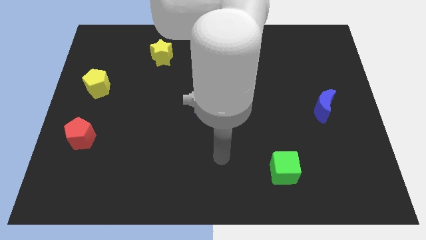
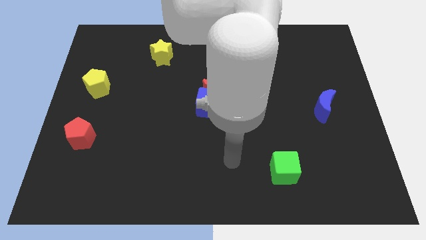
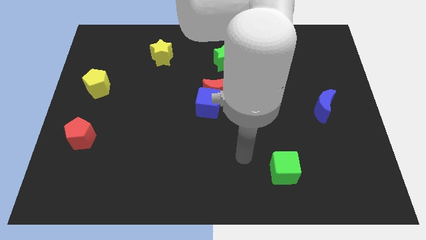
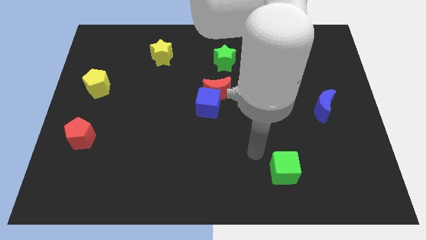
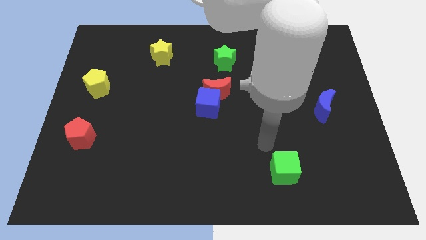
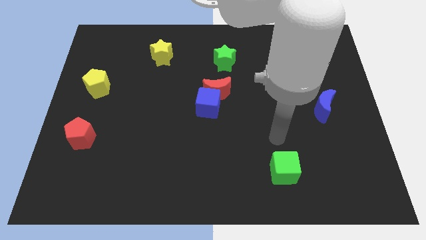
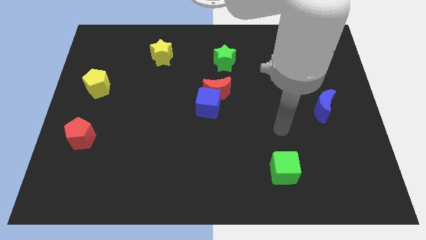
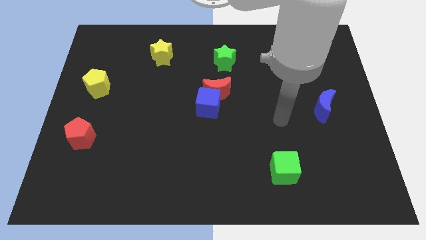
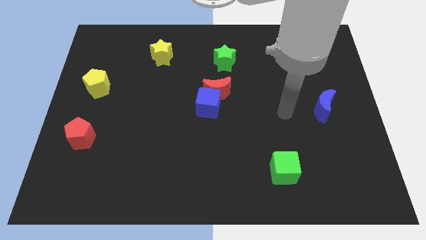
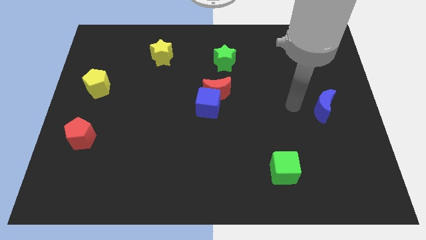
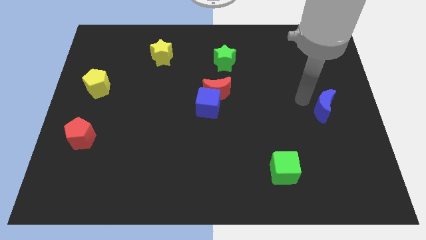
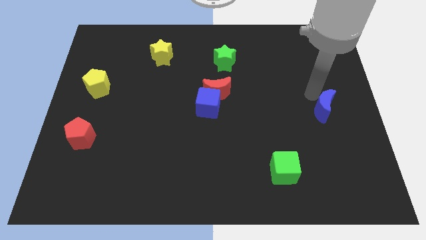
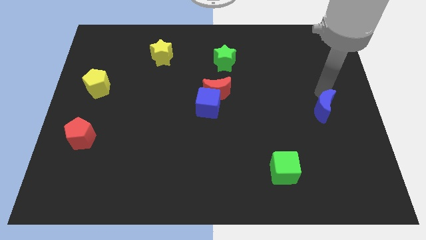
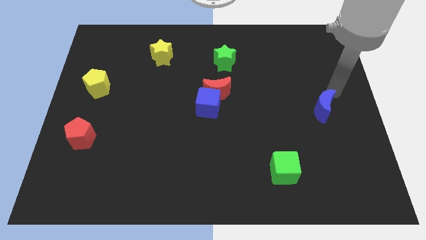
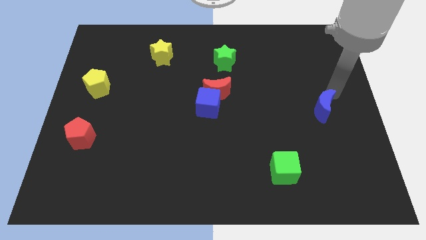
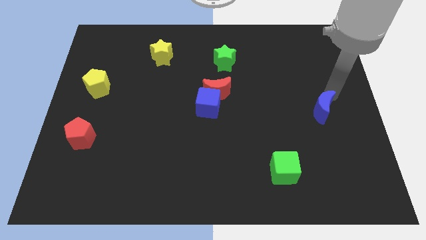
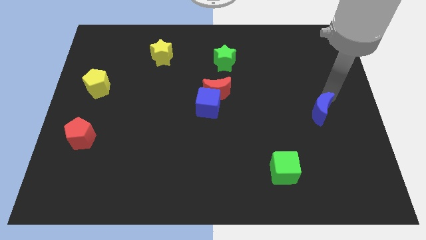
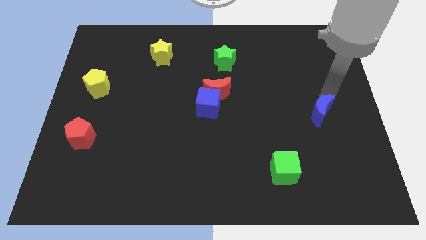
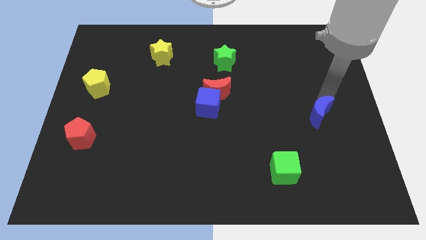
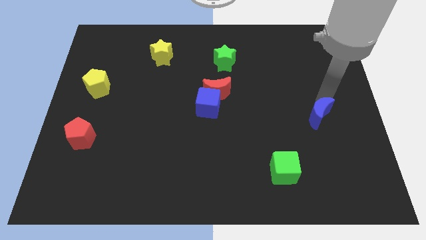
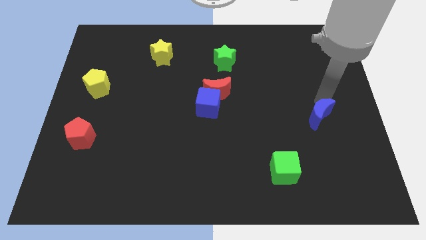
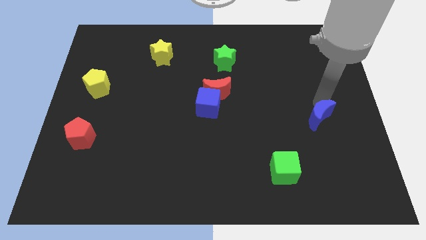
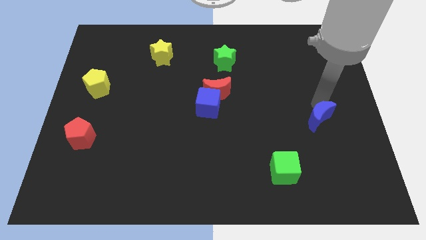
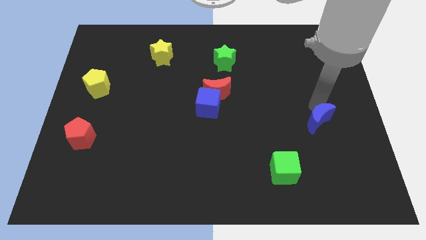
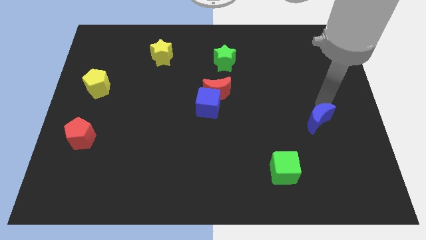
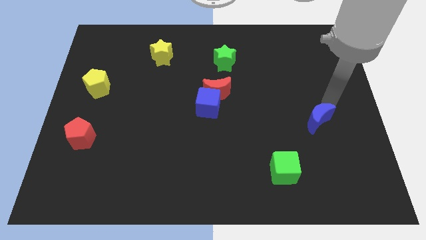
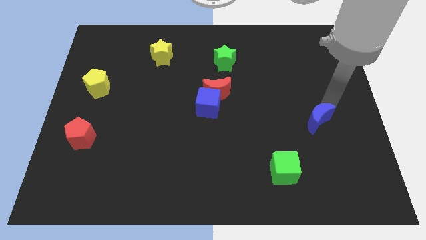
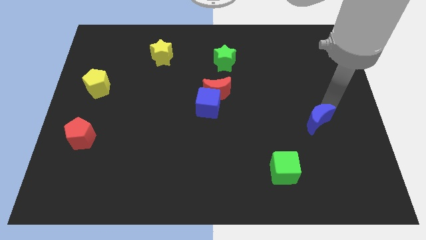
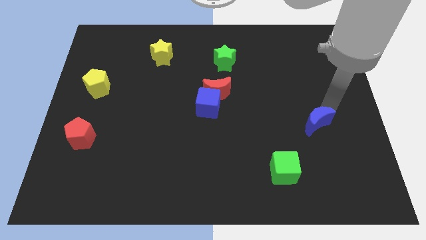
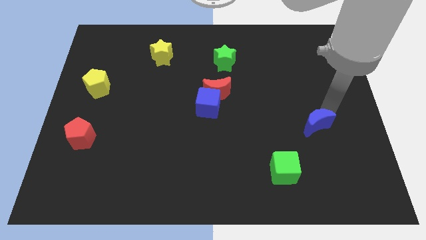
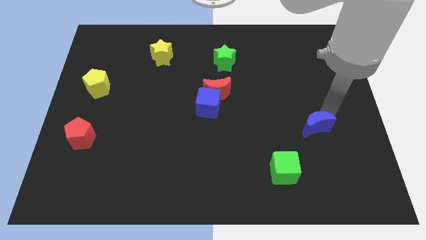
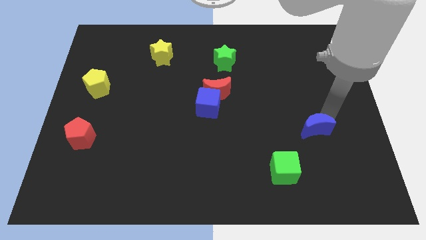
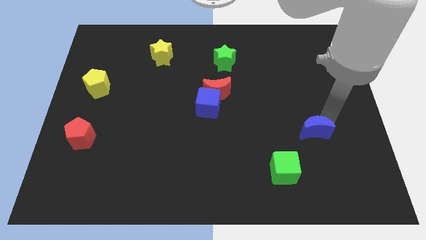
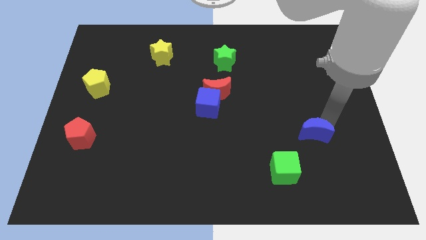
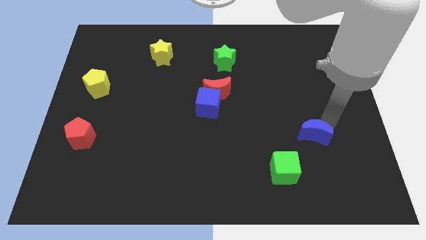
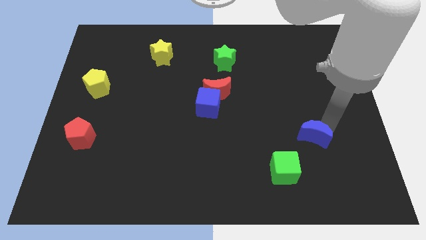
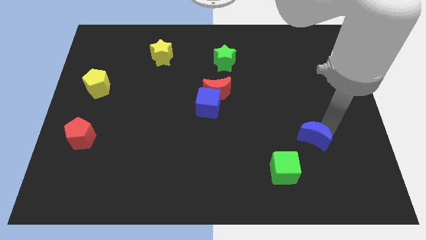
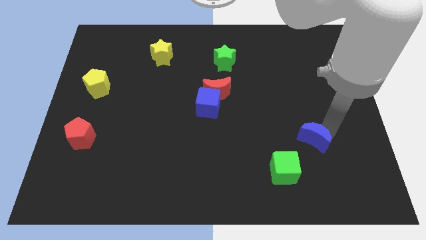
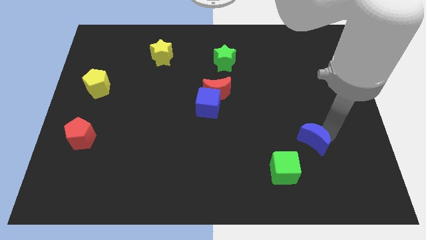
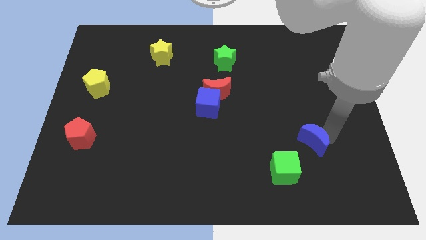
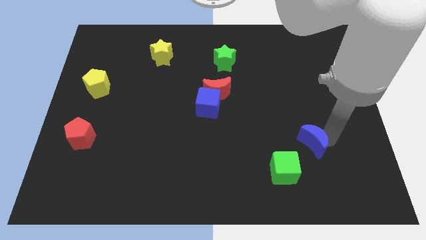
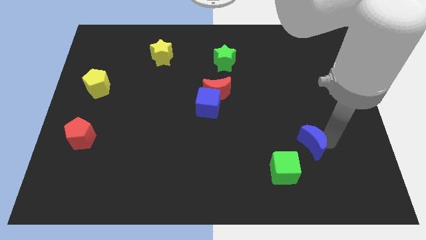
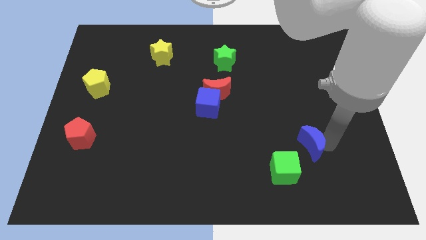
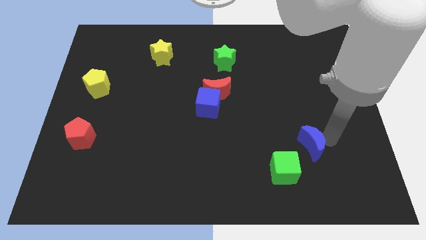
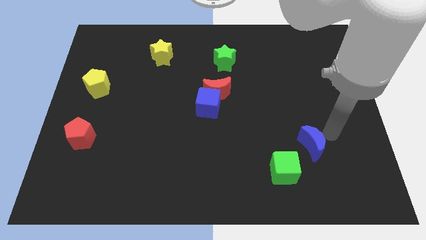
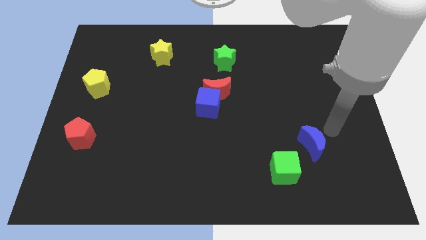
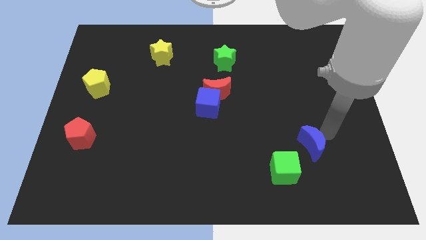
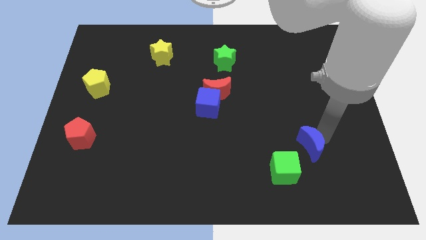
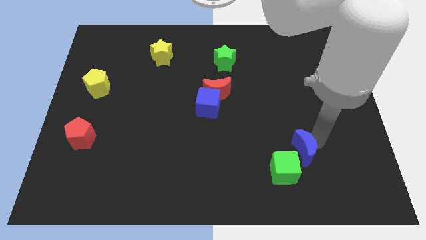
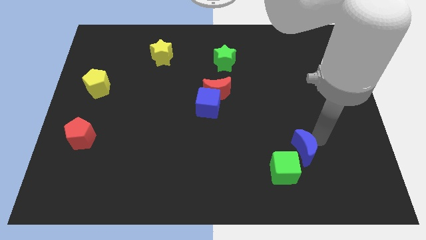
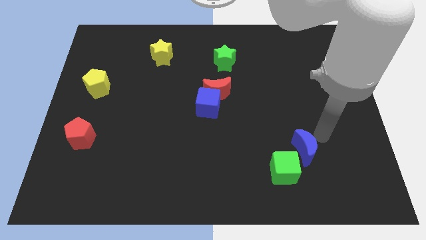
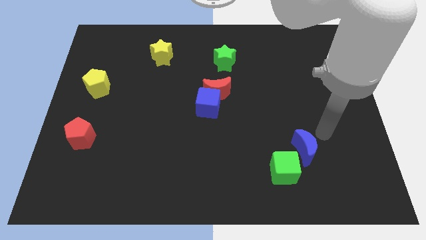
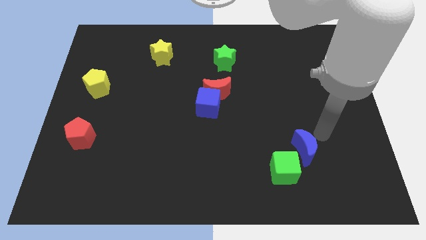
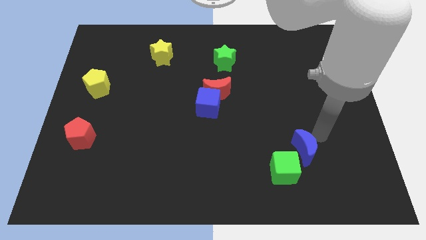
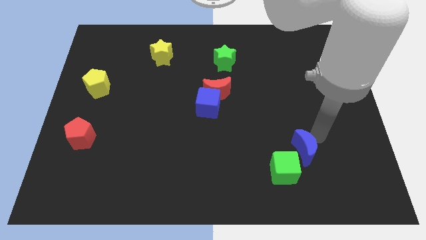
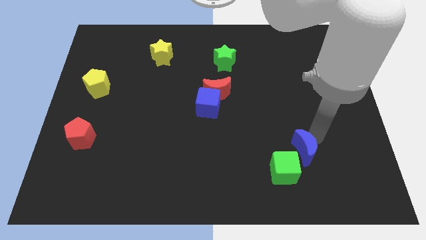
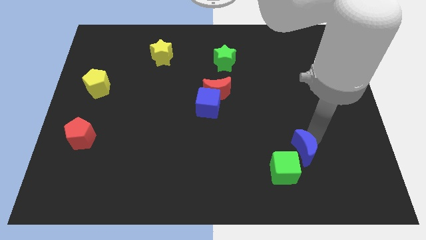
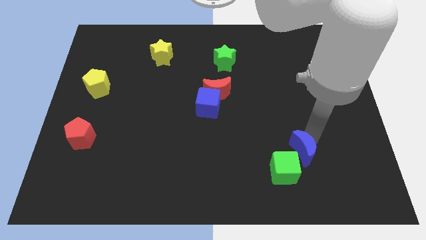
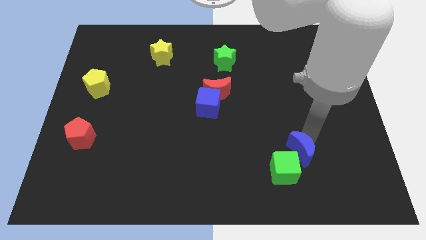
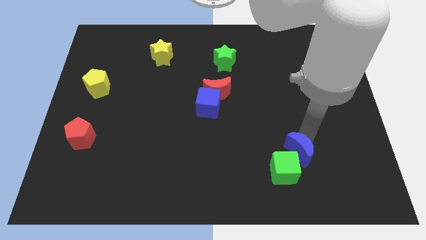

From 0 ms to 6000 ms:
push the blue moon close to the green cube

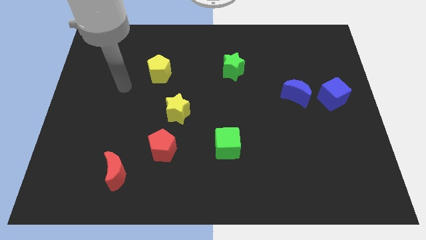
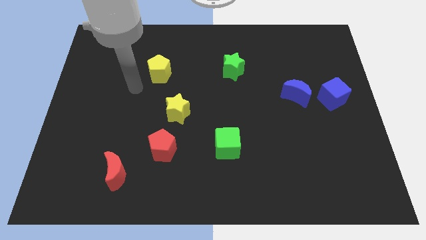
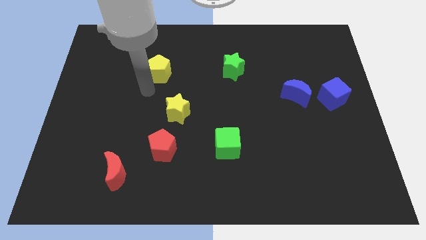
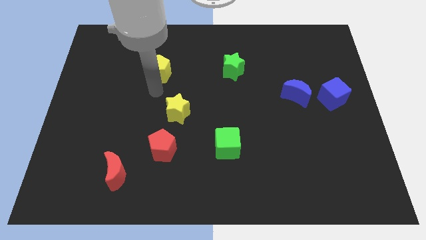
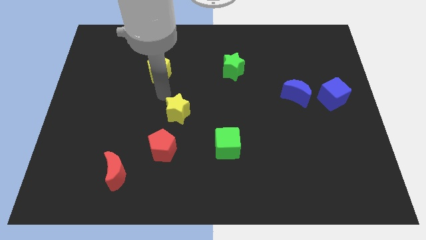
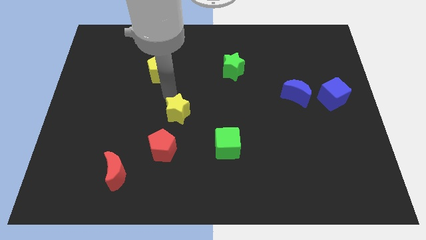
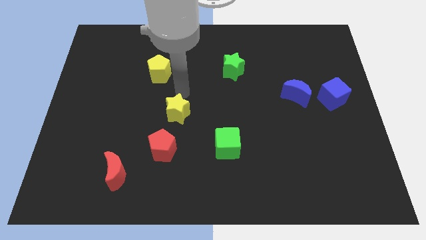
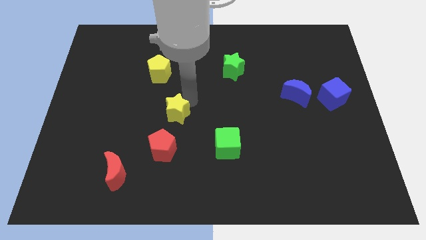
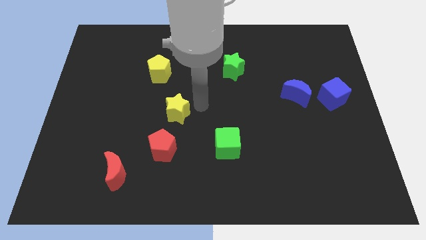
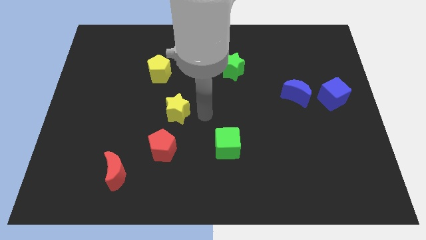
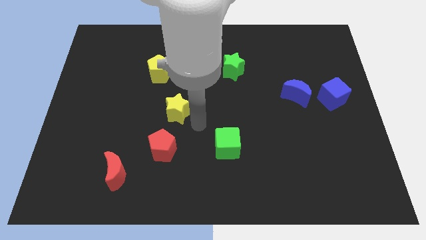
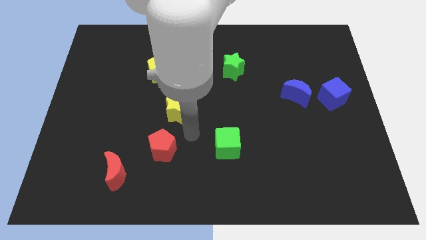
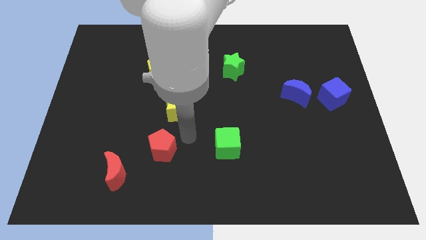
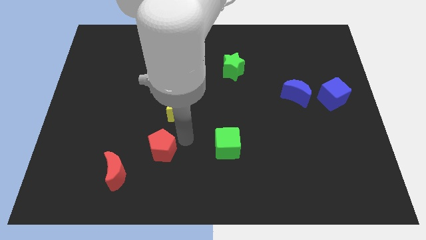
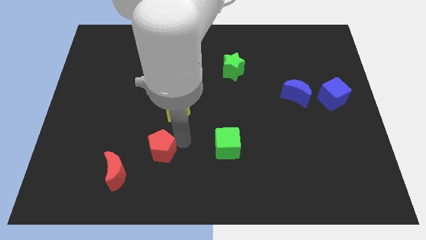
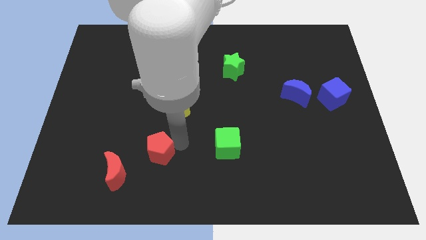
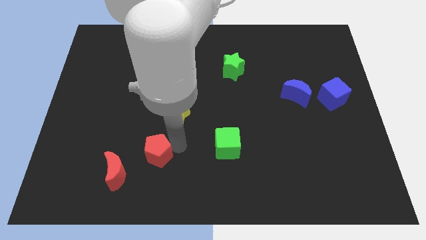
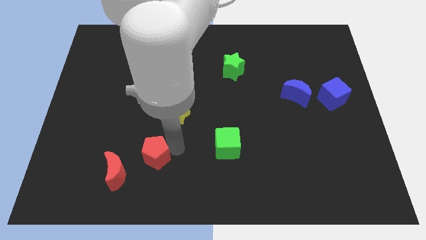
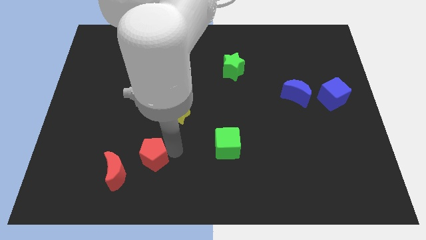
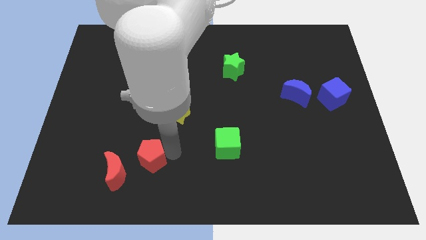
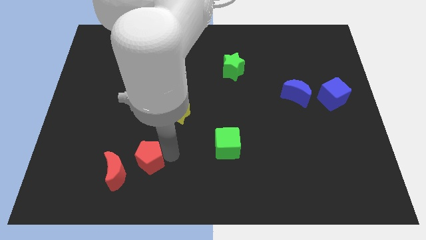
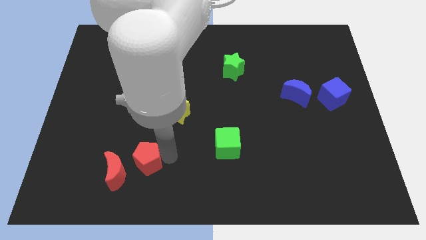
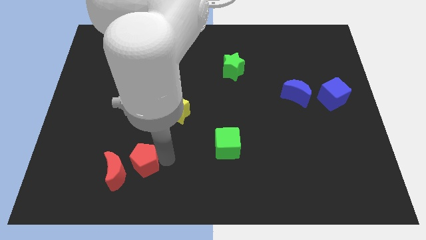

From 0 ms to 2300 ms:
put the red pentagon next to the red moon
